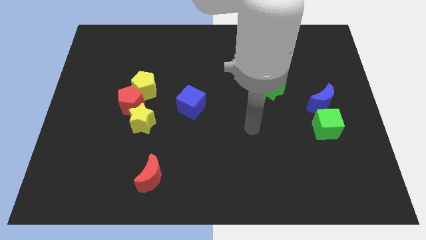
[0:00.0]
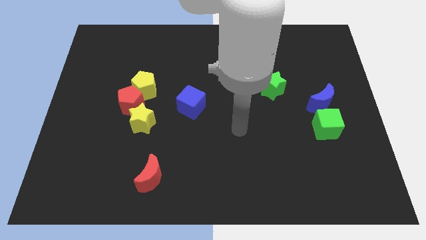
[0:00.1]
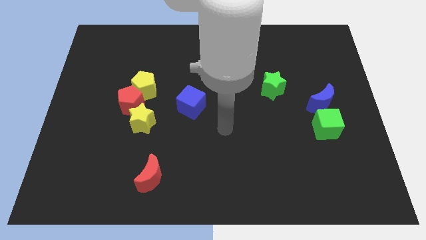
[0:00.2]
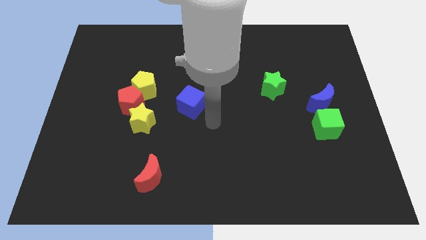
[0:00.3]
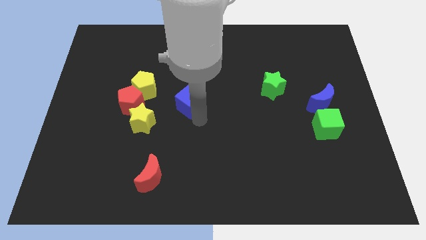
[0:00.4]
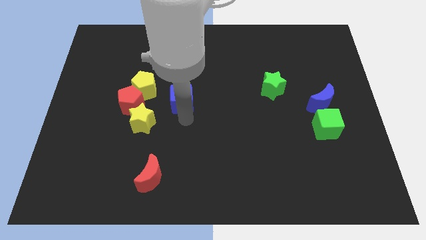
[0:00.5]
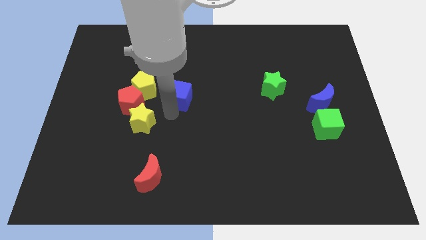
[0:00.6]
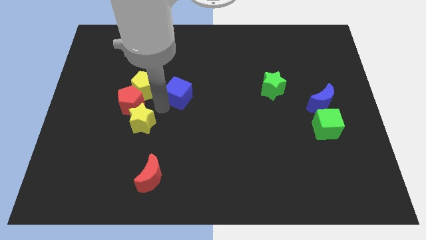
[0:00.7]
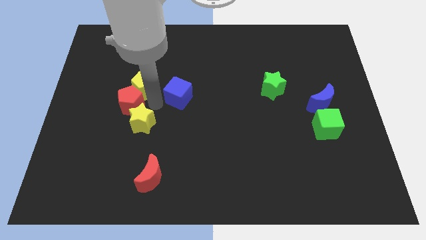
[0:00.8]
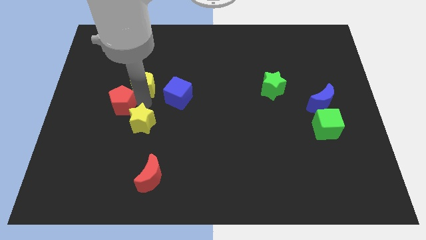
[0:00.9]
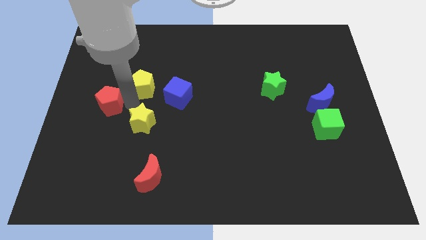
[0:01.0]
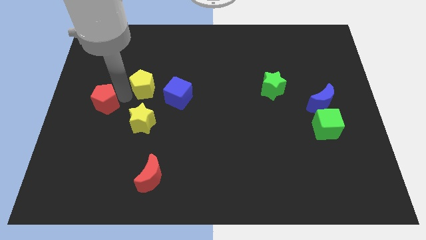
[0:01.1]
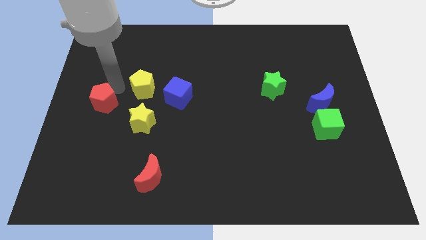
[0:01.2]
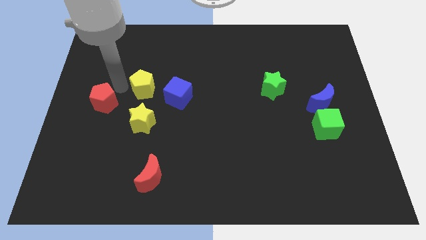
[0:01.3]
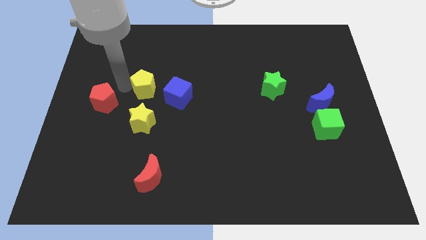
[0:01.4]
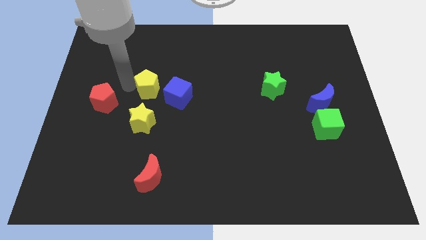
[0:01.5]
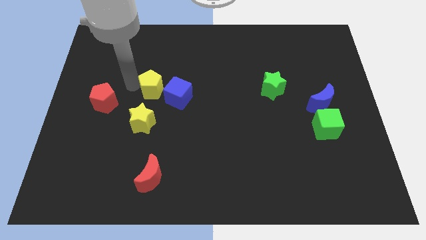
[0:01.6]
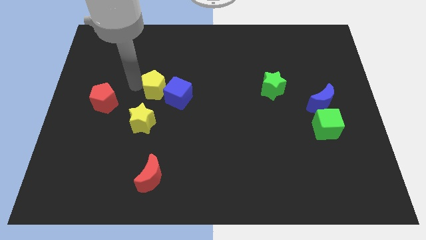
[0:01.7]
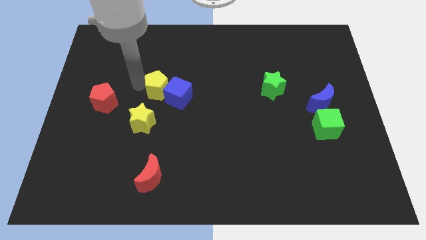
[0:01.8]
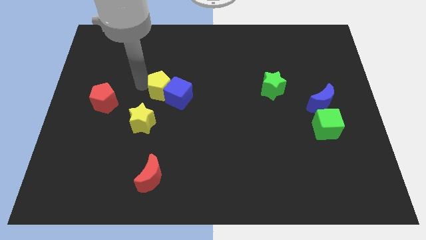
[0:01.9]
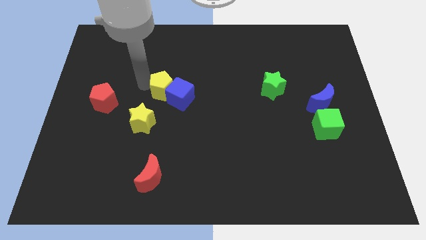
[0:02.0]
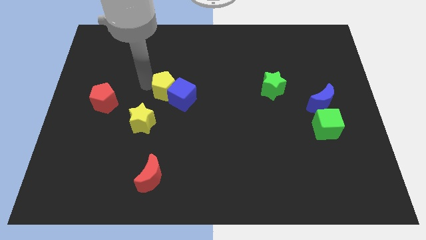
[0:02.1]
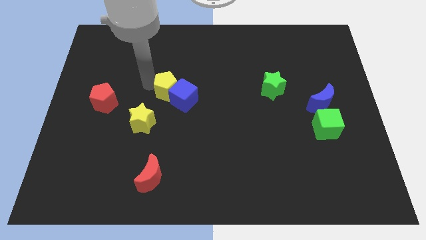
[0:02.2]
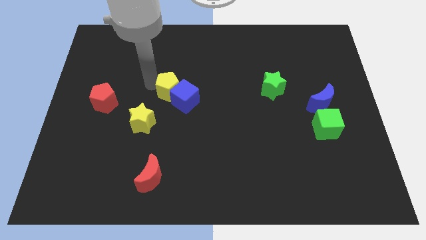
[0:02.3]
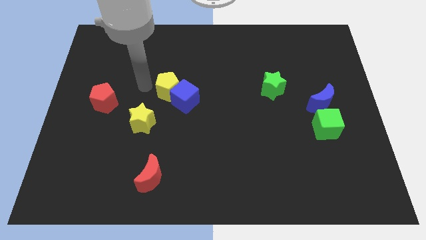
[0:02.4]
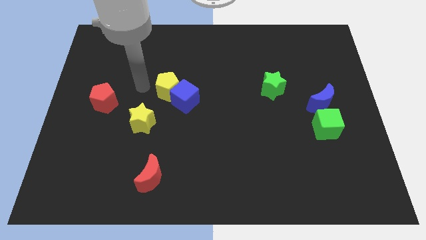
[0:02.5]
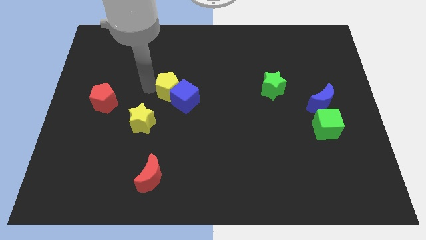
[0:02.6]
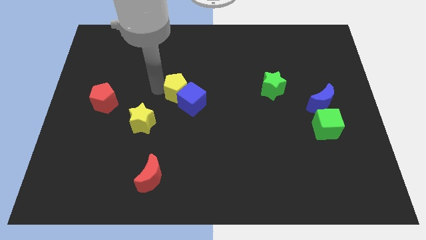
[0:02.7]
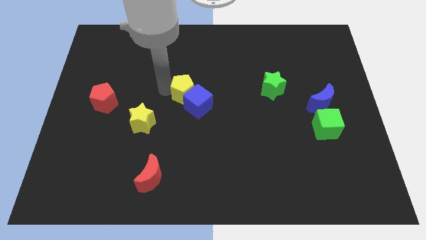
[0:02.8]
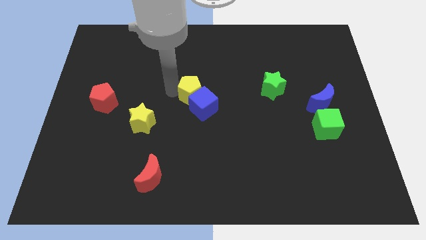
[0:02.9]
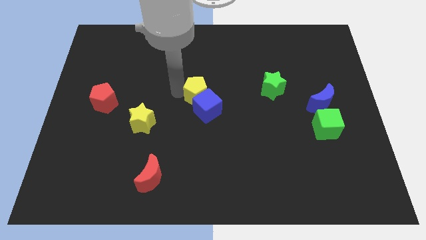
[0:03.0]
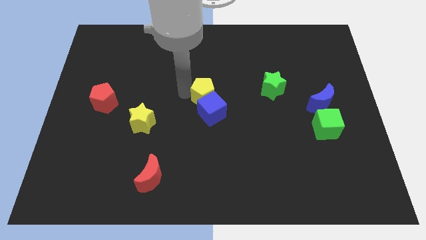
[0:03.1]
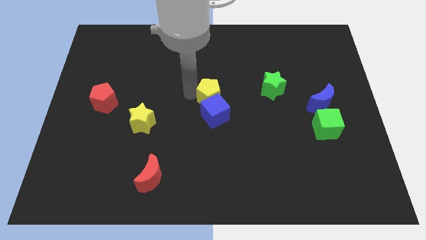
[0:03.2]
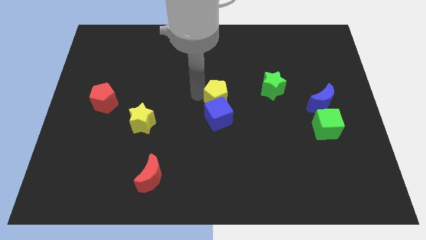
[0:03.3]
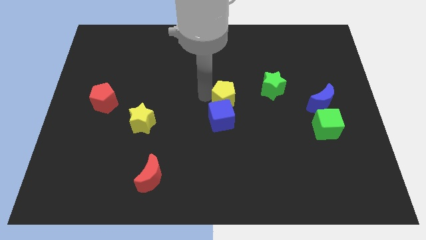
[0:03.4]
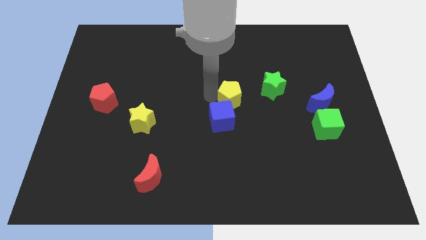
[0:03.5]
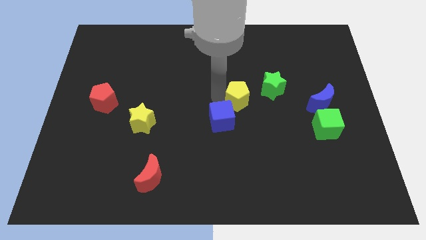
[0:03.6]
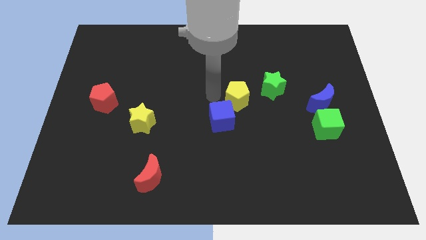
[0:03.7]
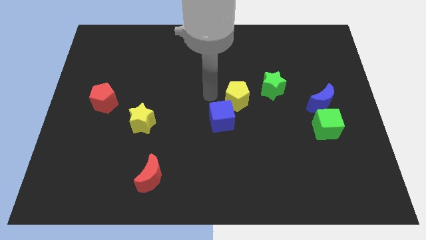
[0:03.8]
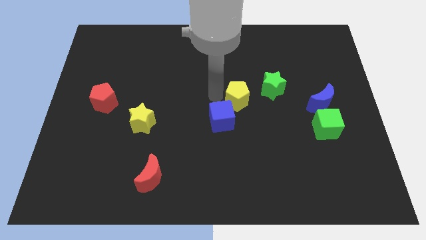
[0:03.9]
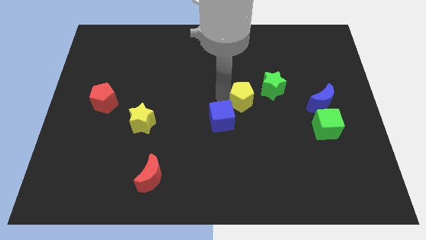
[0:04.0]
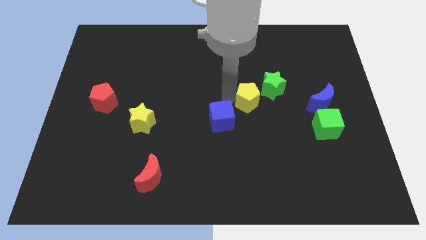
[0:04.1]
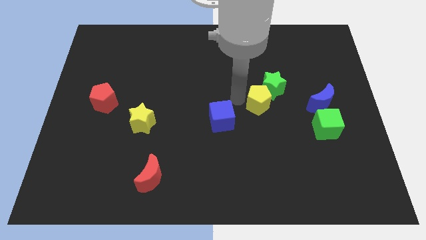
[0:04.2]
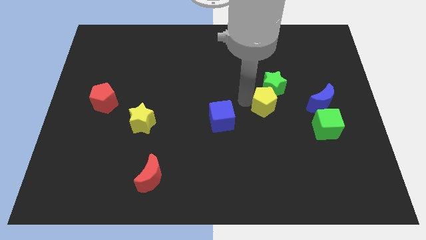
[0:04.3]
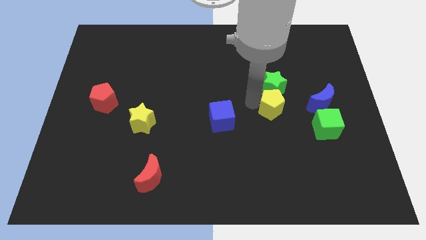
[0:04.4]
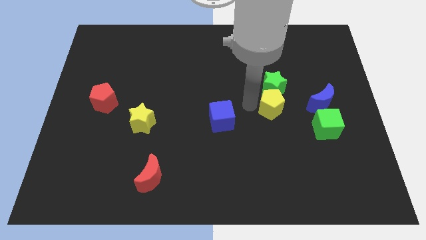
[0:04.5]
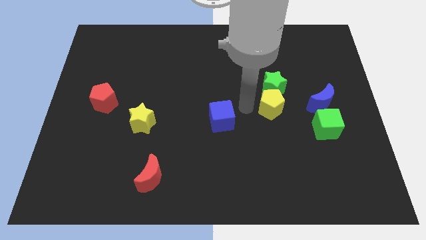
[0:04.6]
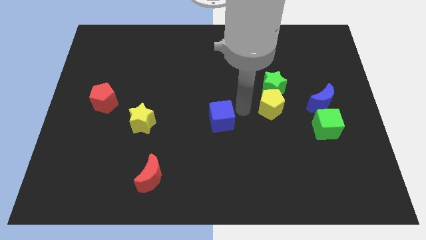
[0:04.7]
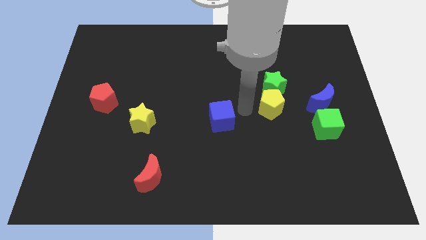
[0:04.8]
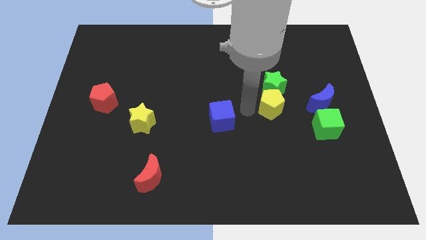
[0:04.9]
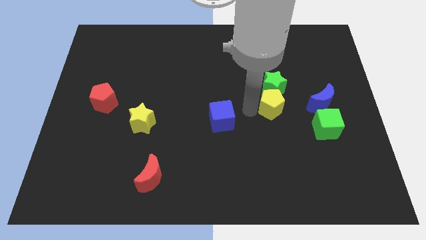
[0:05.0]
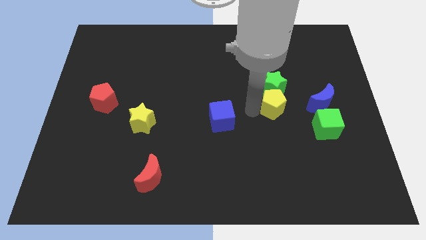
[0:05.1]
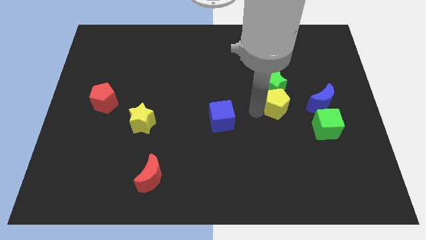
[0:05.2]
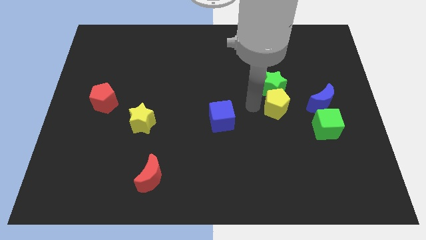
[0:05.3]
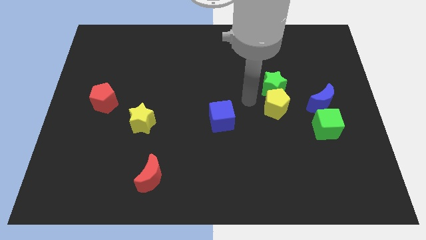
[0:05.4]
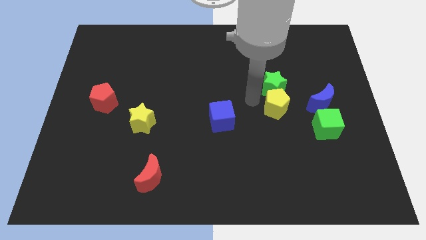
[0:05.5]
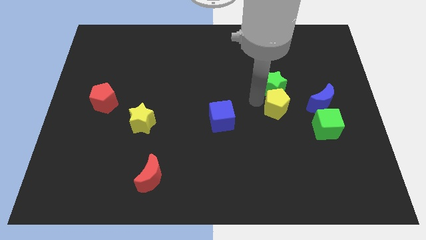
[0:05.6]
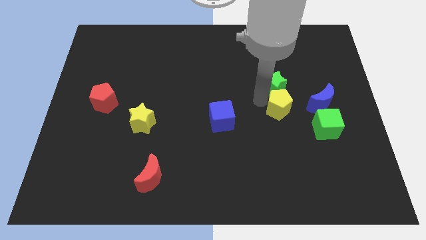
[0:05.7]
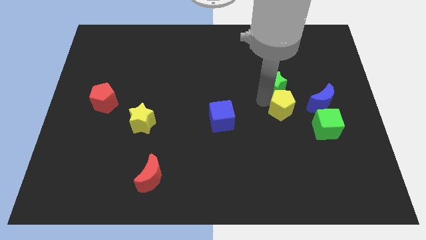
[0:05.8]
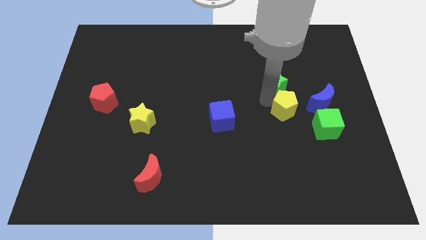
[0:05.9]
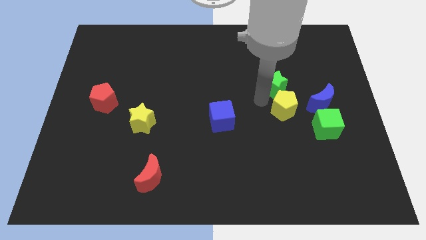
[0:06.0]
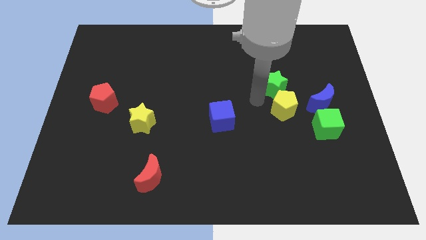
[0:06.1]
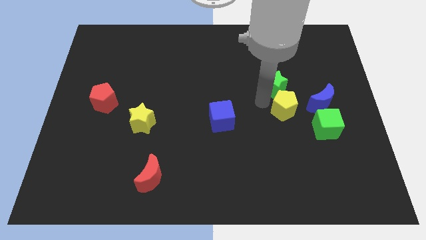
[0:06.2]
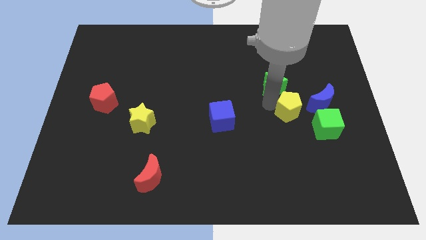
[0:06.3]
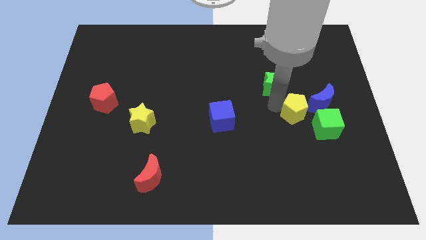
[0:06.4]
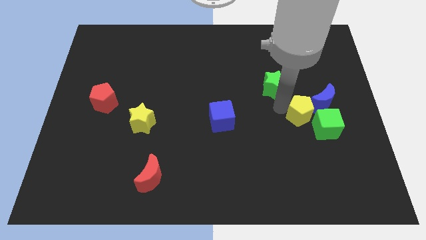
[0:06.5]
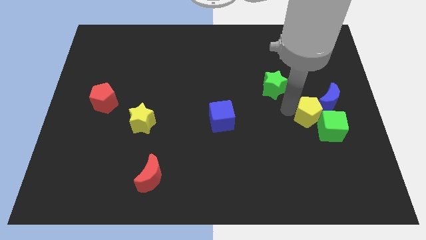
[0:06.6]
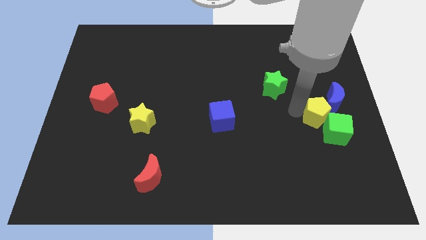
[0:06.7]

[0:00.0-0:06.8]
slide the yellow pentagon close to the green cube
